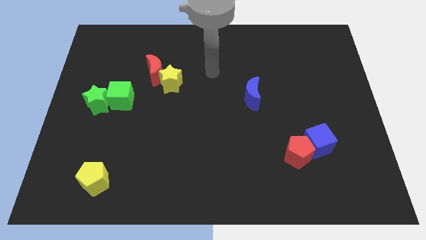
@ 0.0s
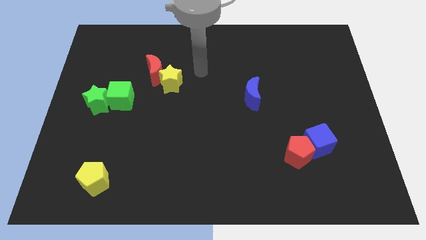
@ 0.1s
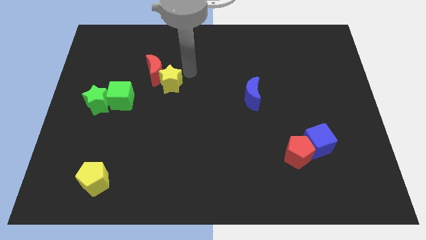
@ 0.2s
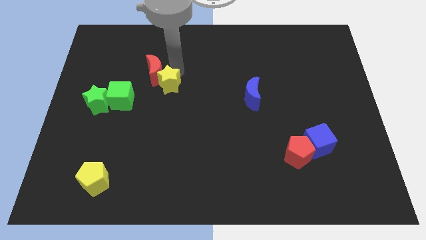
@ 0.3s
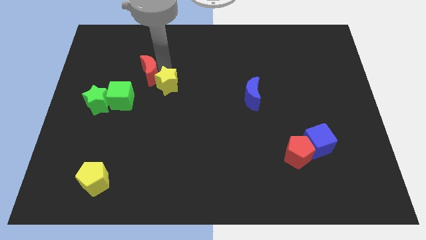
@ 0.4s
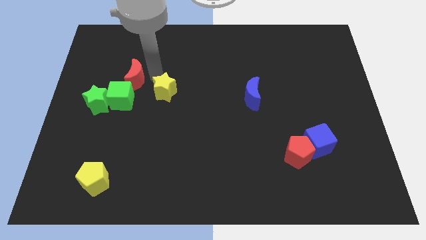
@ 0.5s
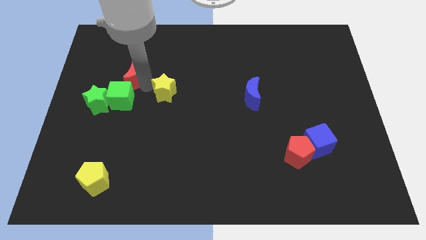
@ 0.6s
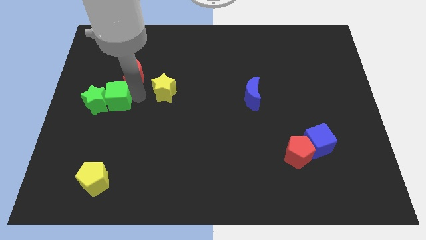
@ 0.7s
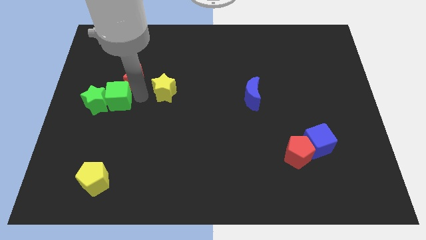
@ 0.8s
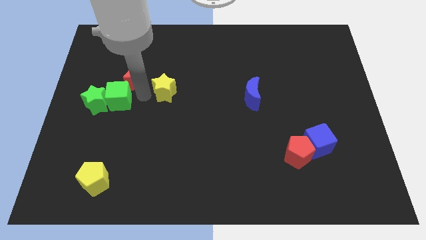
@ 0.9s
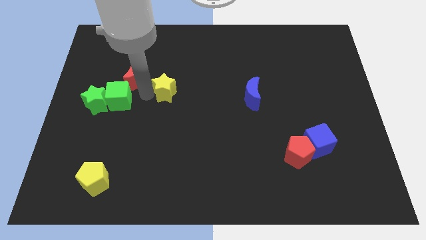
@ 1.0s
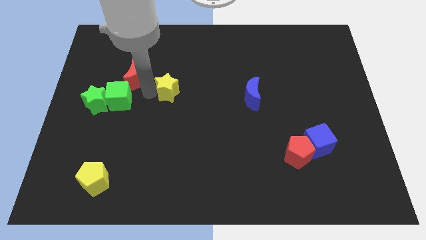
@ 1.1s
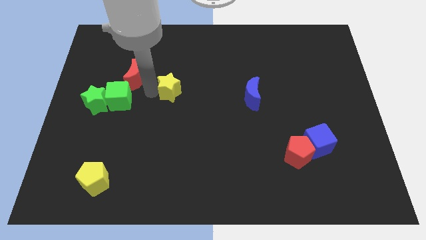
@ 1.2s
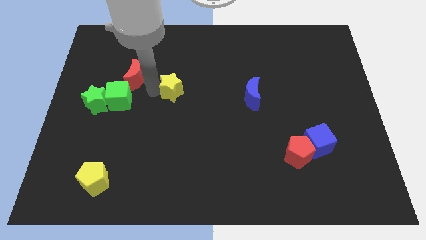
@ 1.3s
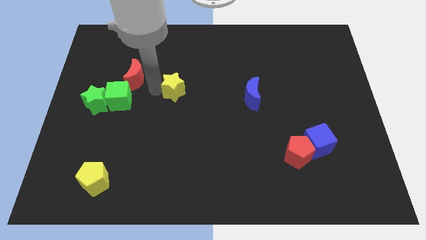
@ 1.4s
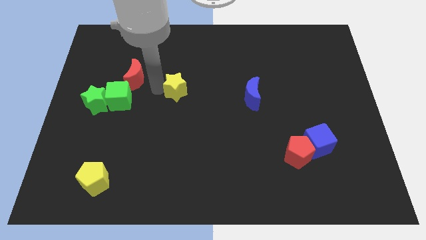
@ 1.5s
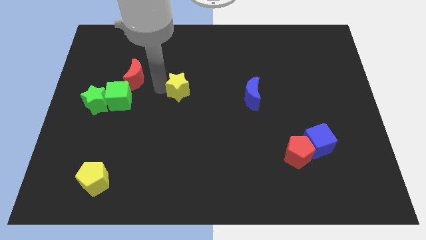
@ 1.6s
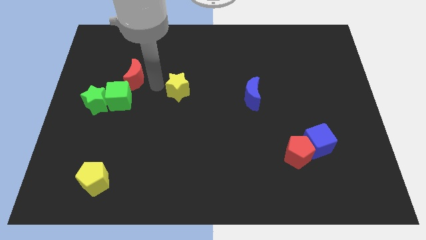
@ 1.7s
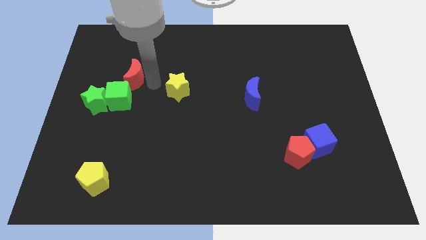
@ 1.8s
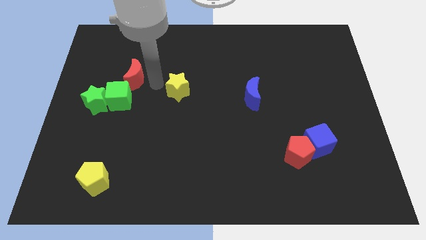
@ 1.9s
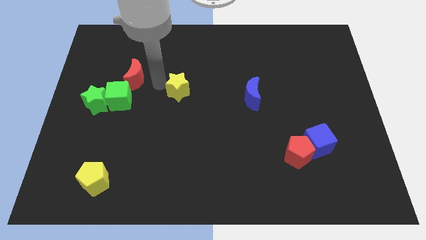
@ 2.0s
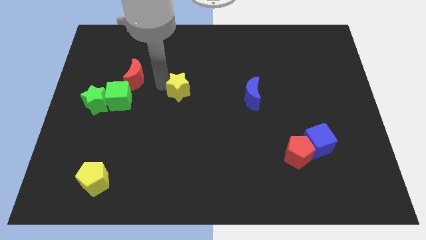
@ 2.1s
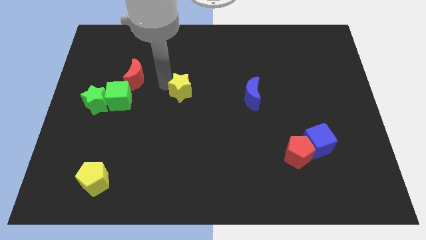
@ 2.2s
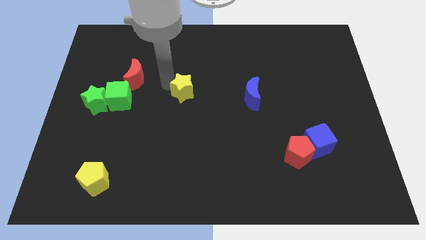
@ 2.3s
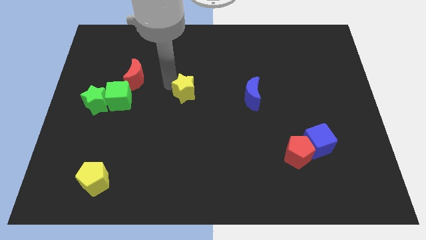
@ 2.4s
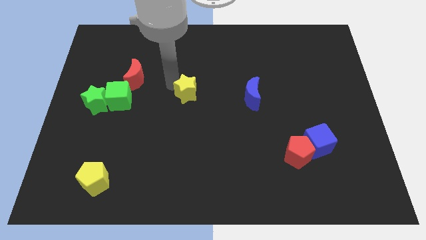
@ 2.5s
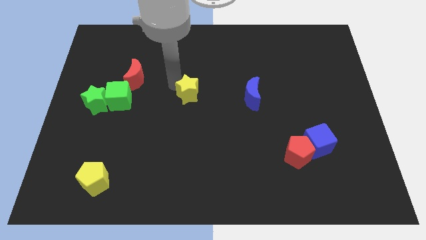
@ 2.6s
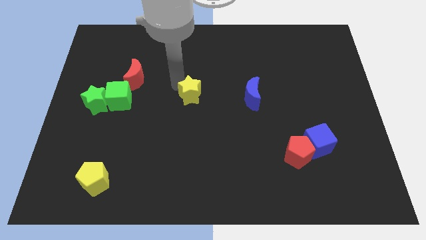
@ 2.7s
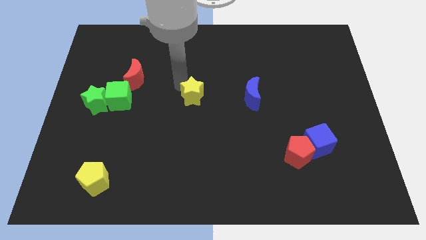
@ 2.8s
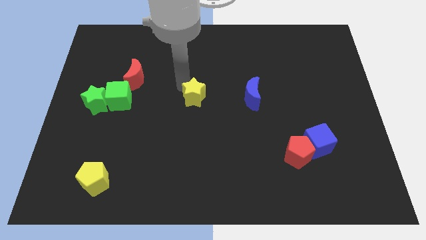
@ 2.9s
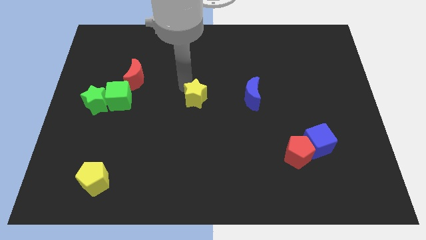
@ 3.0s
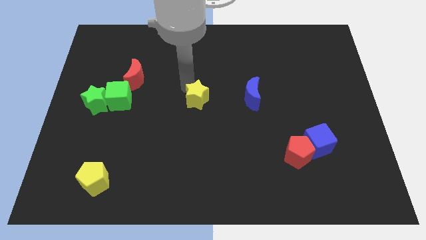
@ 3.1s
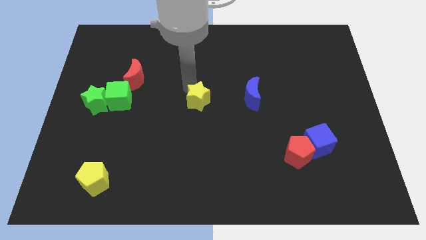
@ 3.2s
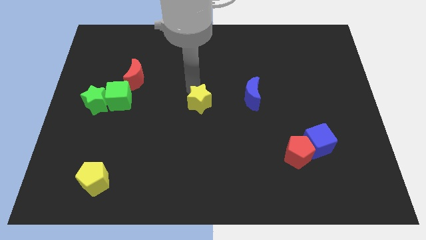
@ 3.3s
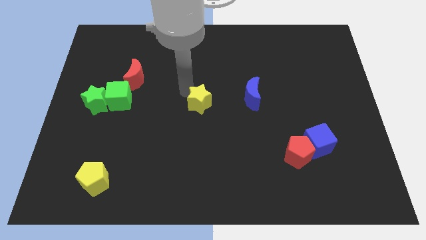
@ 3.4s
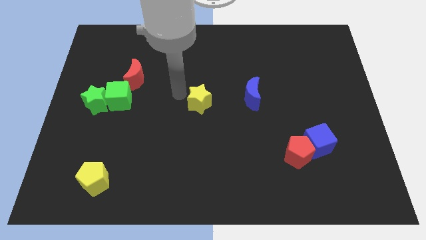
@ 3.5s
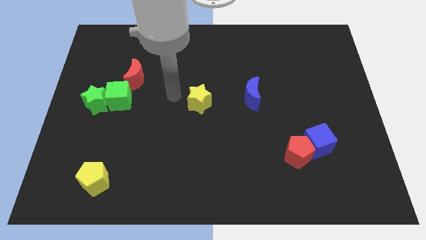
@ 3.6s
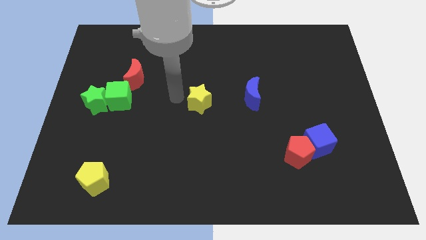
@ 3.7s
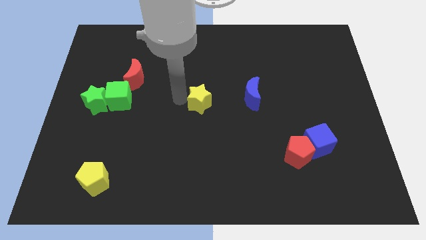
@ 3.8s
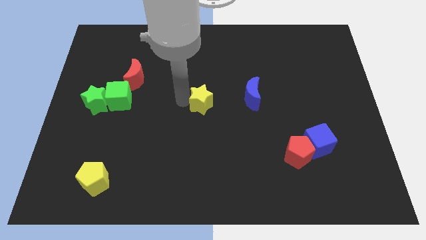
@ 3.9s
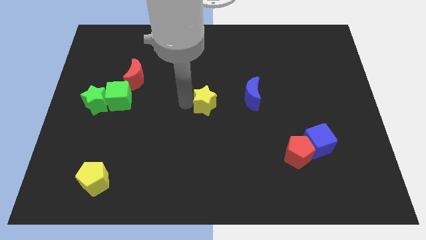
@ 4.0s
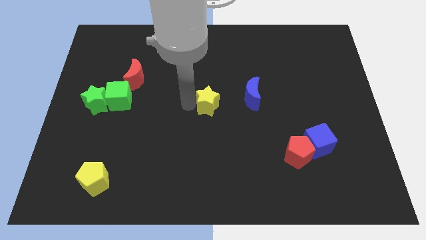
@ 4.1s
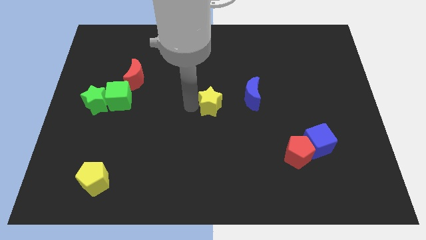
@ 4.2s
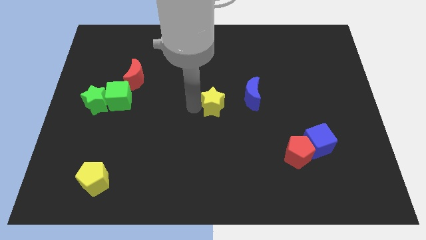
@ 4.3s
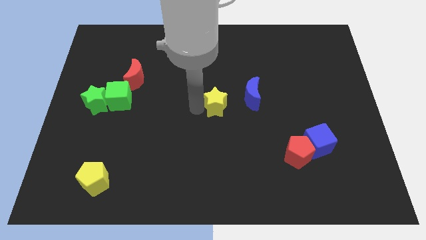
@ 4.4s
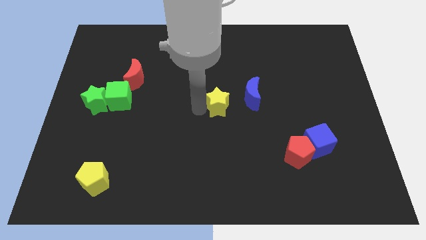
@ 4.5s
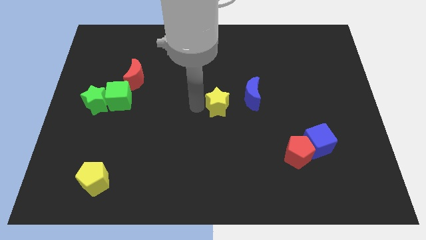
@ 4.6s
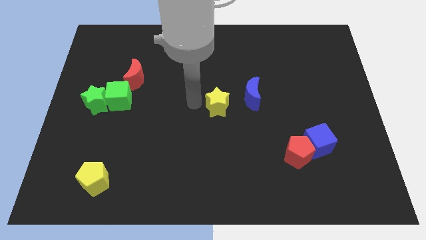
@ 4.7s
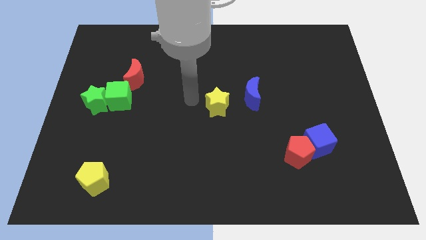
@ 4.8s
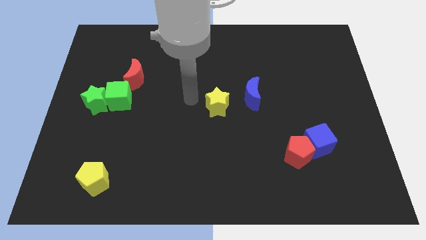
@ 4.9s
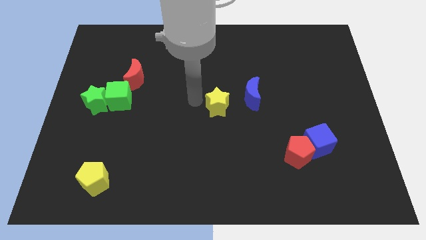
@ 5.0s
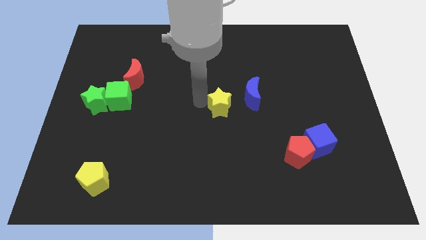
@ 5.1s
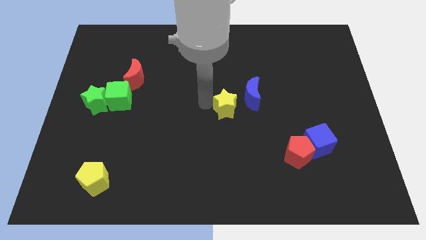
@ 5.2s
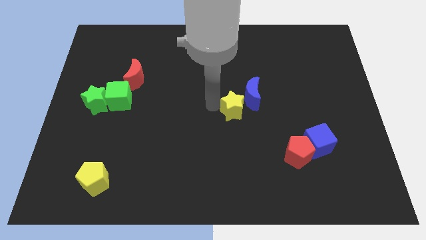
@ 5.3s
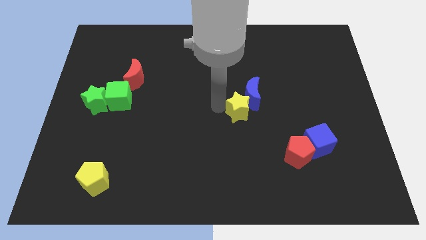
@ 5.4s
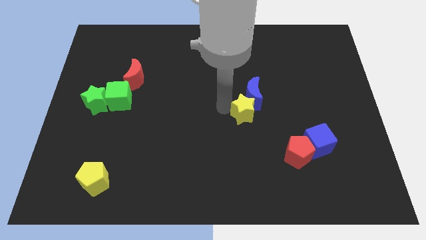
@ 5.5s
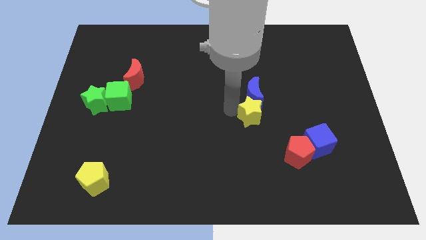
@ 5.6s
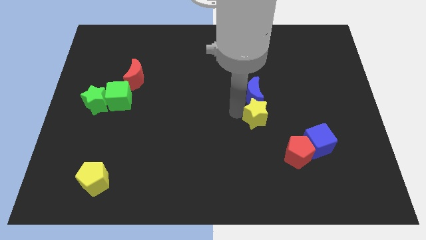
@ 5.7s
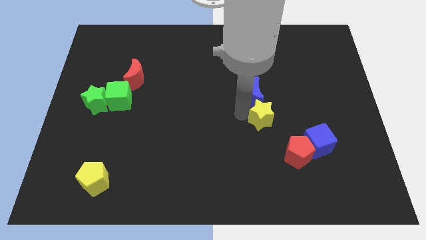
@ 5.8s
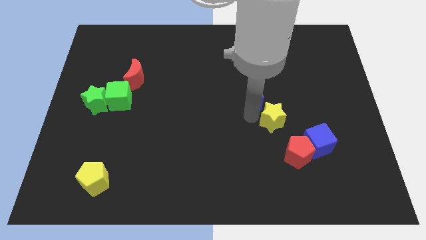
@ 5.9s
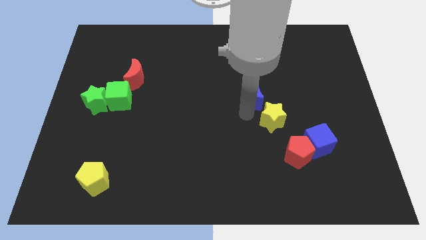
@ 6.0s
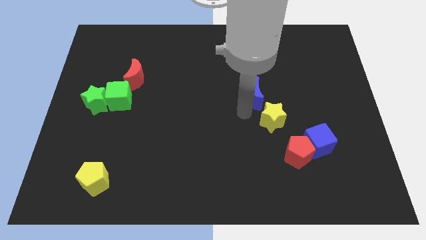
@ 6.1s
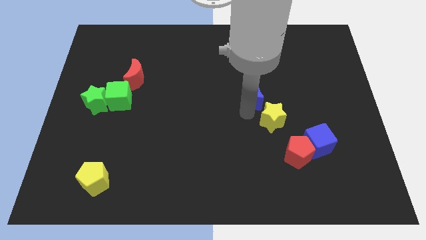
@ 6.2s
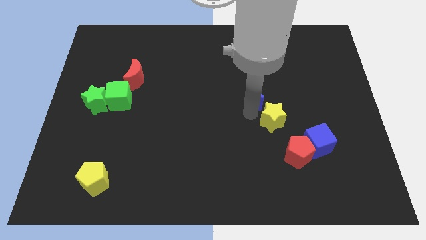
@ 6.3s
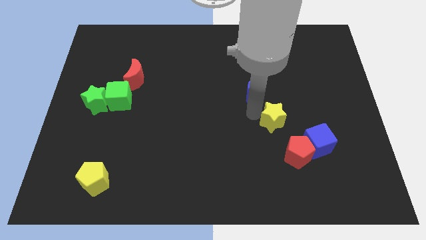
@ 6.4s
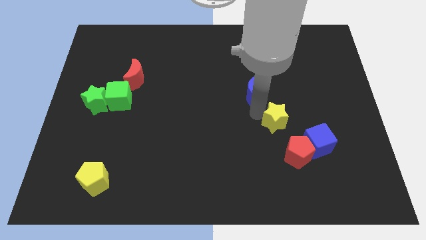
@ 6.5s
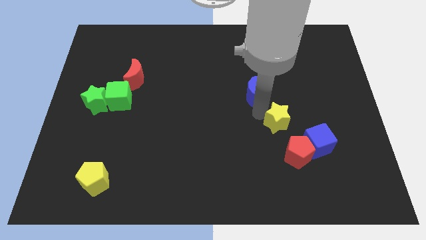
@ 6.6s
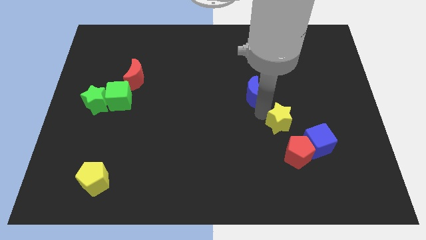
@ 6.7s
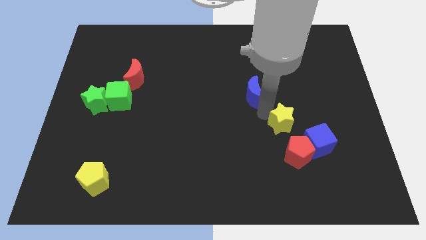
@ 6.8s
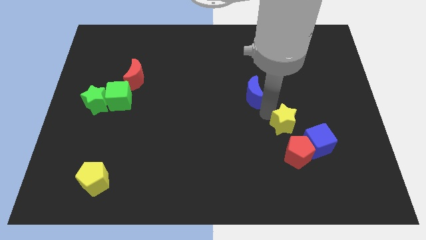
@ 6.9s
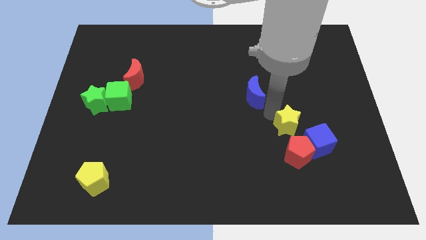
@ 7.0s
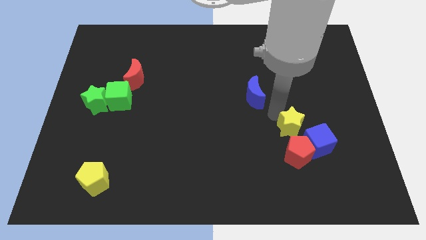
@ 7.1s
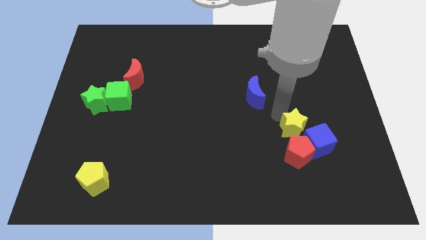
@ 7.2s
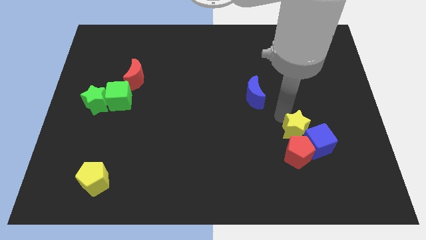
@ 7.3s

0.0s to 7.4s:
move the yellow star to the blue cube
